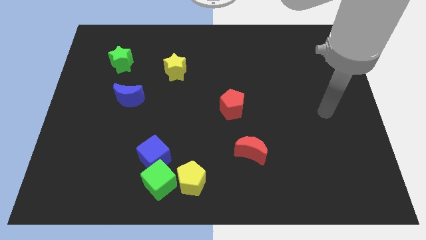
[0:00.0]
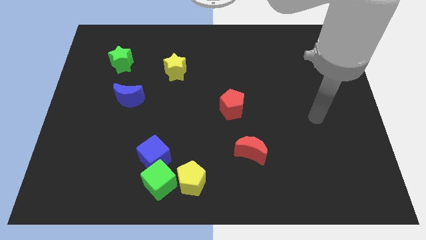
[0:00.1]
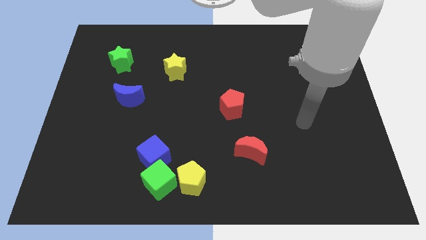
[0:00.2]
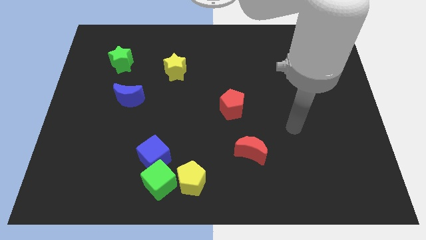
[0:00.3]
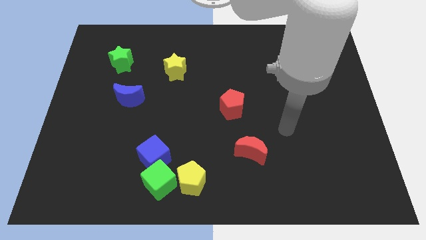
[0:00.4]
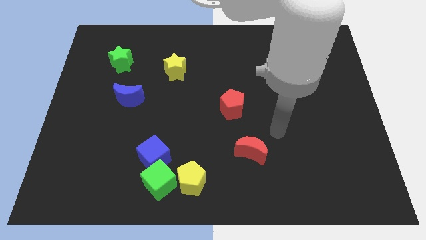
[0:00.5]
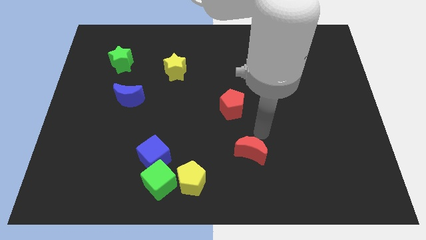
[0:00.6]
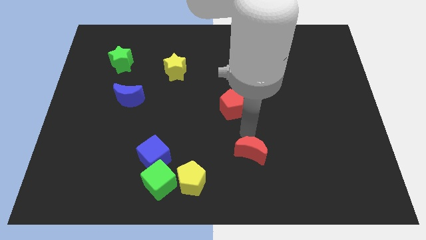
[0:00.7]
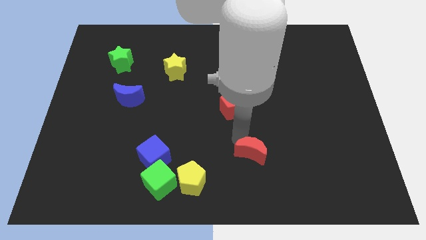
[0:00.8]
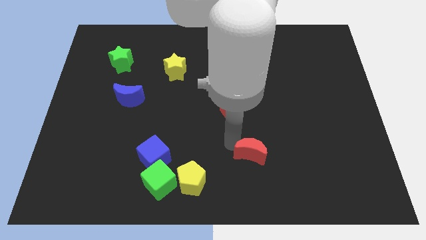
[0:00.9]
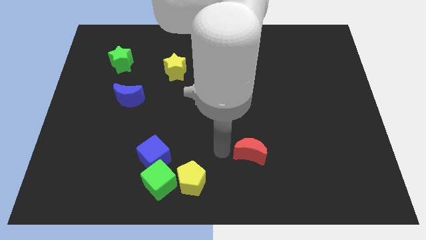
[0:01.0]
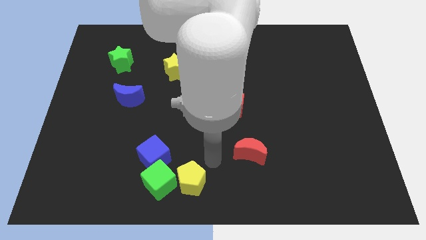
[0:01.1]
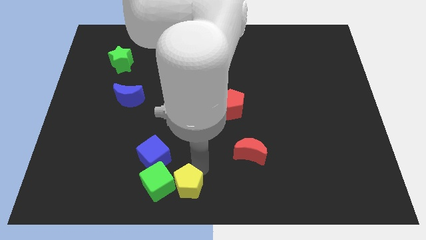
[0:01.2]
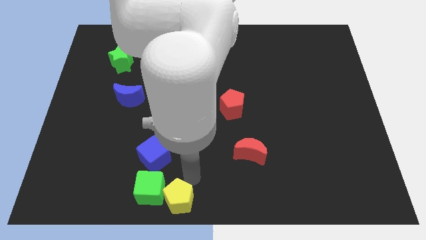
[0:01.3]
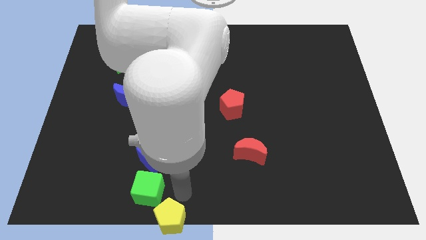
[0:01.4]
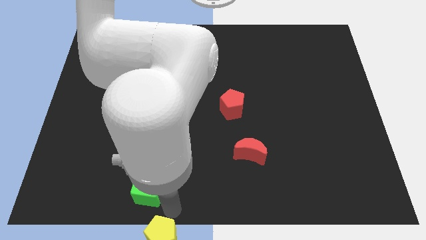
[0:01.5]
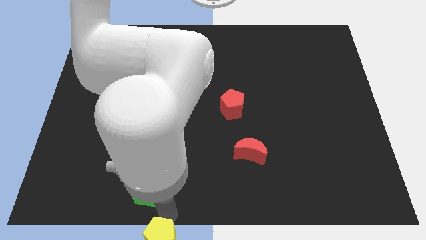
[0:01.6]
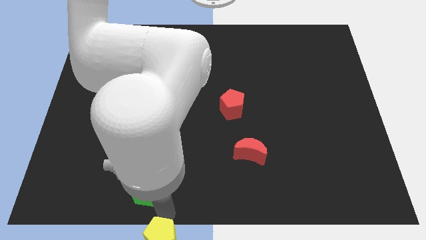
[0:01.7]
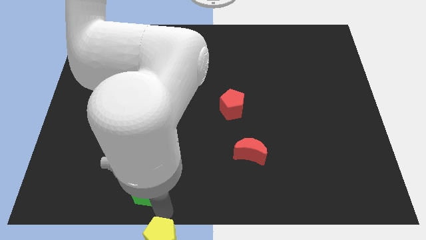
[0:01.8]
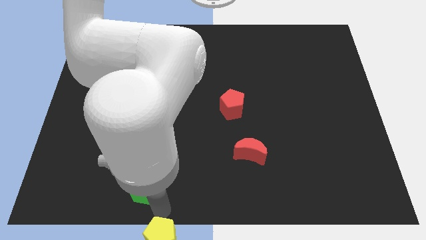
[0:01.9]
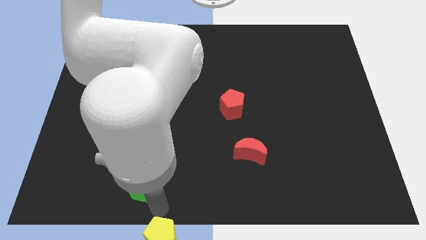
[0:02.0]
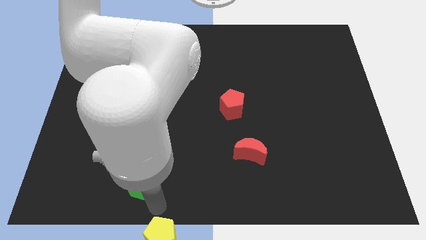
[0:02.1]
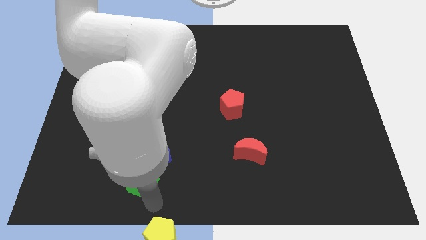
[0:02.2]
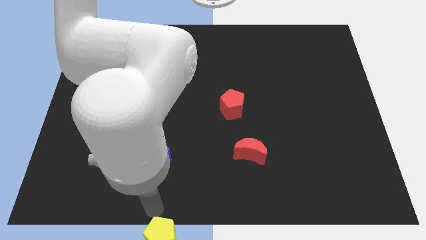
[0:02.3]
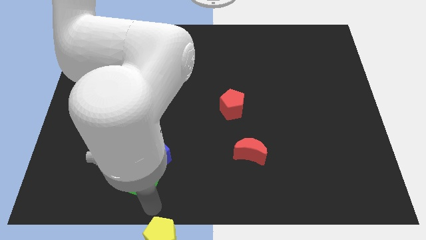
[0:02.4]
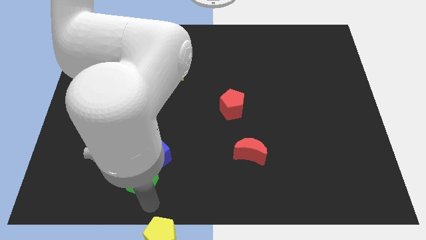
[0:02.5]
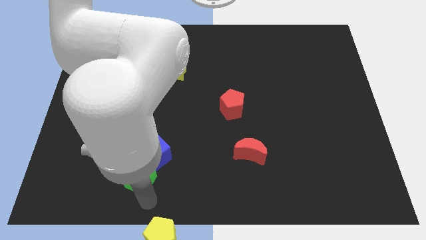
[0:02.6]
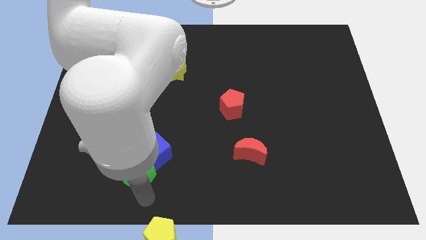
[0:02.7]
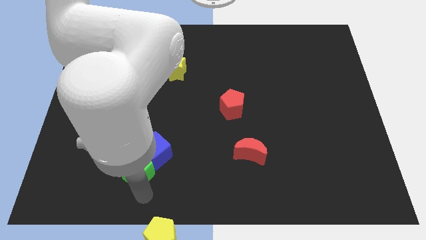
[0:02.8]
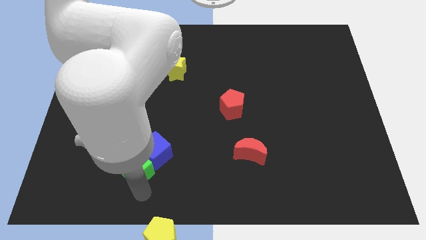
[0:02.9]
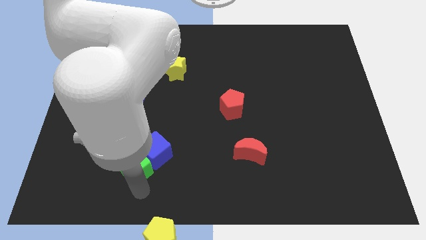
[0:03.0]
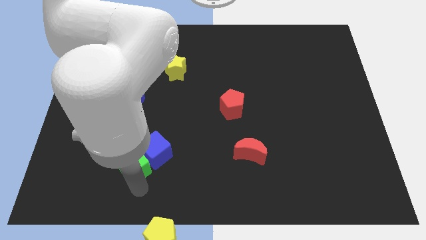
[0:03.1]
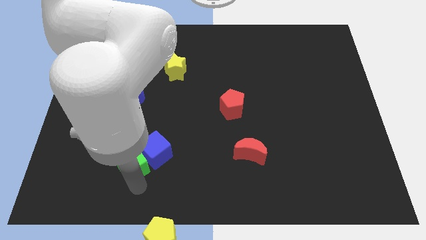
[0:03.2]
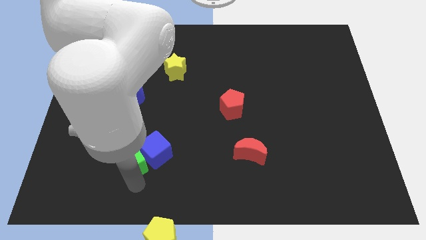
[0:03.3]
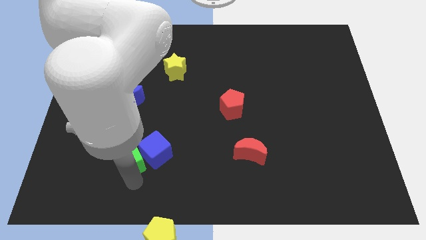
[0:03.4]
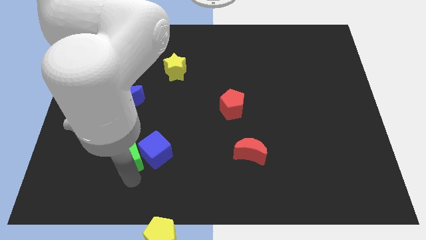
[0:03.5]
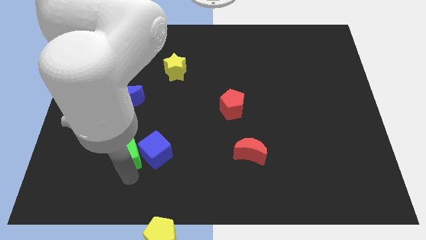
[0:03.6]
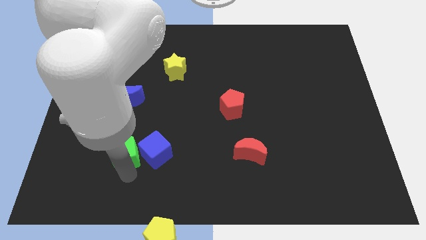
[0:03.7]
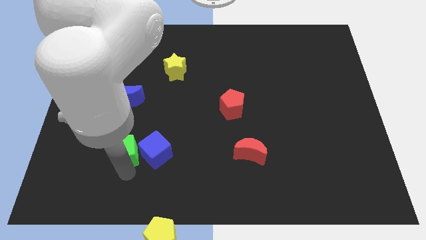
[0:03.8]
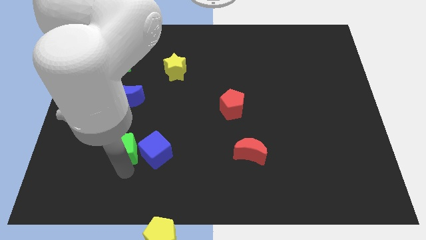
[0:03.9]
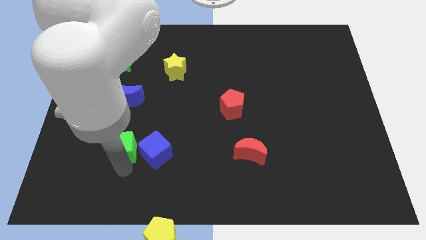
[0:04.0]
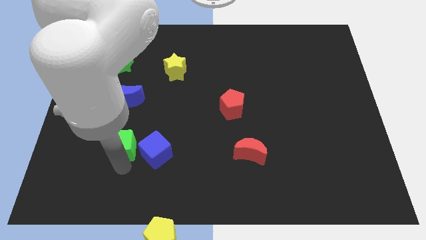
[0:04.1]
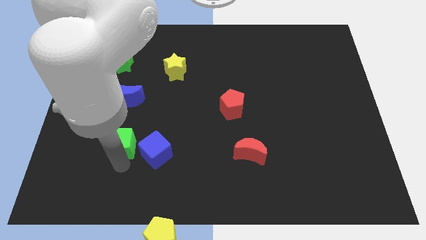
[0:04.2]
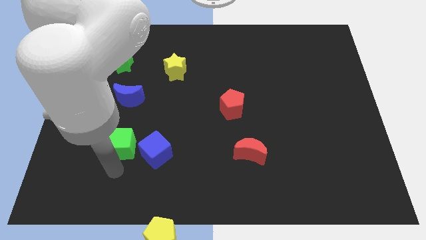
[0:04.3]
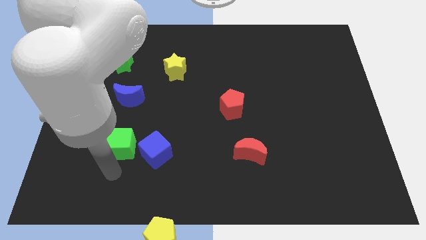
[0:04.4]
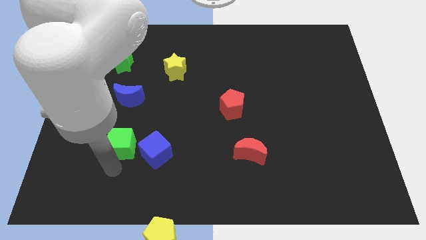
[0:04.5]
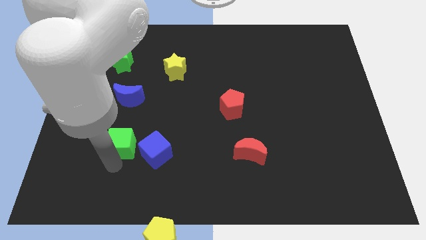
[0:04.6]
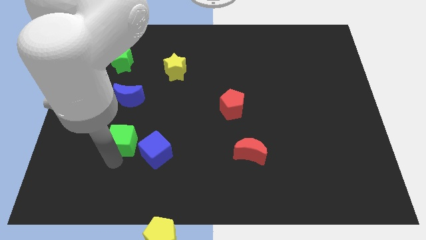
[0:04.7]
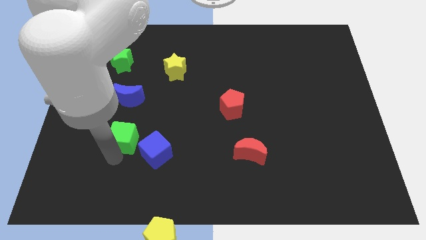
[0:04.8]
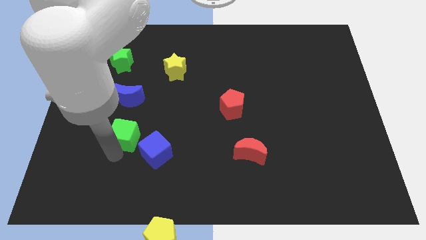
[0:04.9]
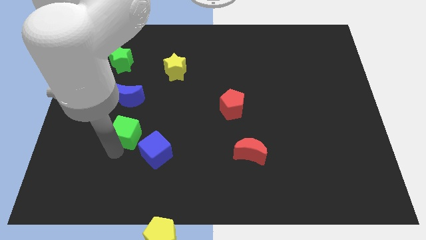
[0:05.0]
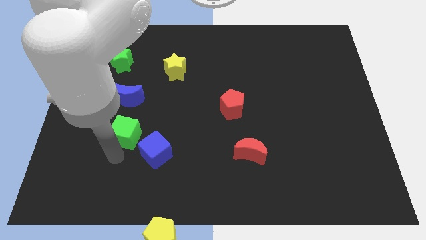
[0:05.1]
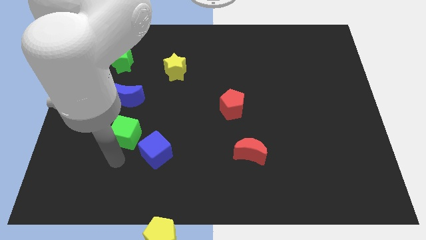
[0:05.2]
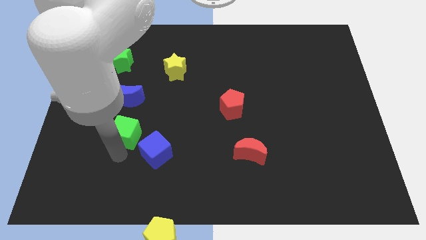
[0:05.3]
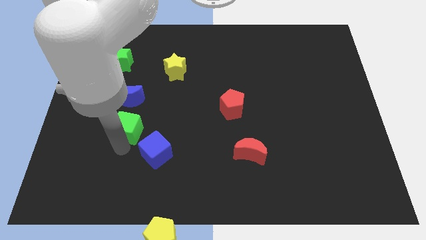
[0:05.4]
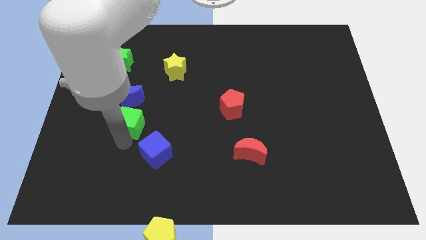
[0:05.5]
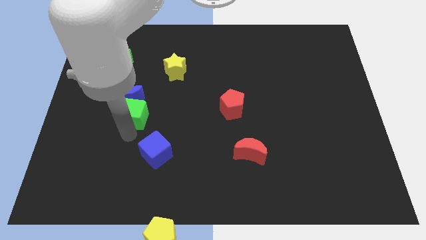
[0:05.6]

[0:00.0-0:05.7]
push the green cube next to the blue moon
